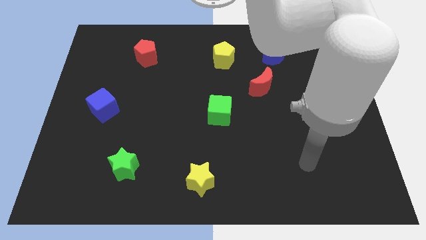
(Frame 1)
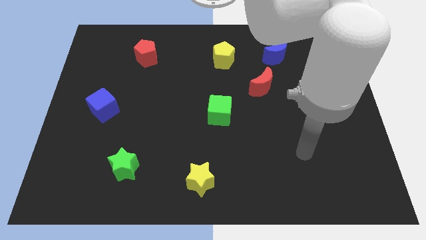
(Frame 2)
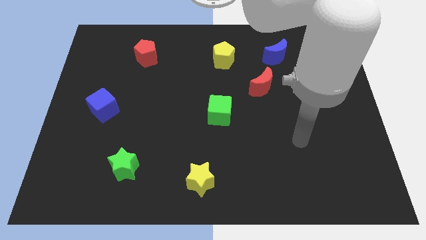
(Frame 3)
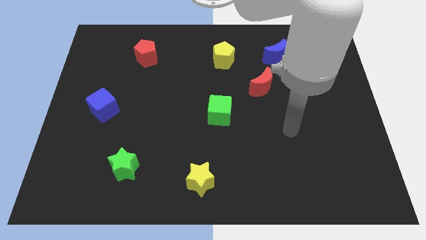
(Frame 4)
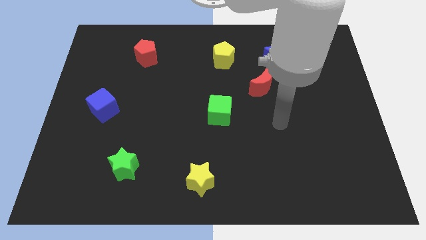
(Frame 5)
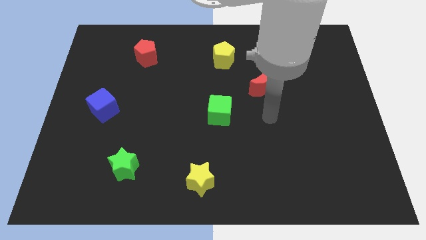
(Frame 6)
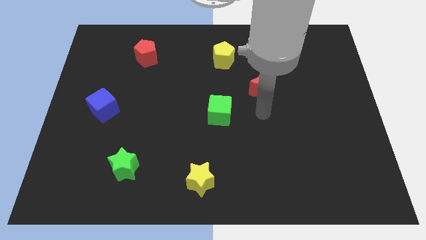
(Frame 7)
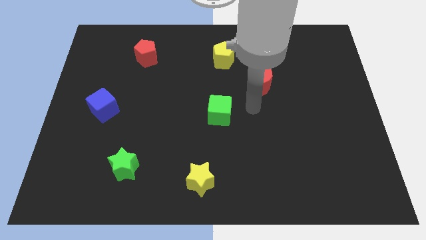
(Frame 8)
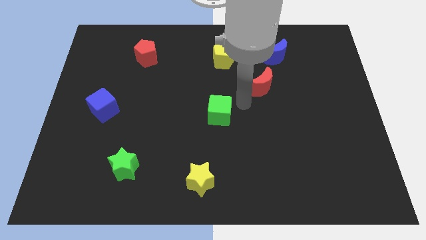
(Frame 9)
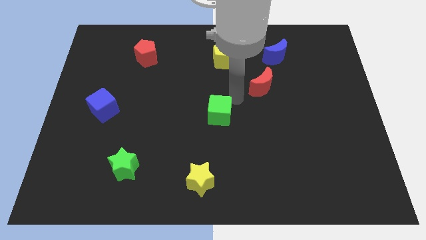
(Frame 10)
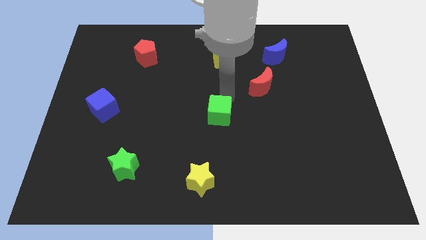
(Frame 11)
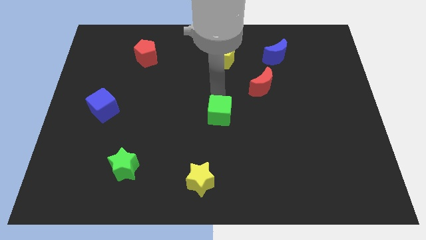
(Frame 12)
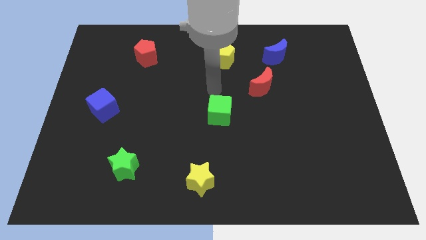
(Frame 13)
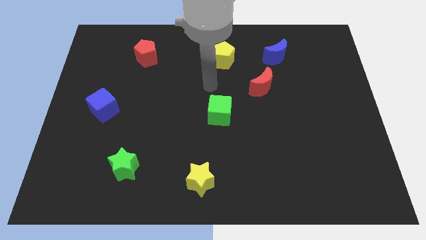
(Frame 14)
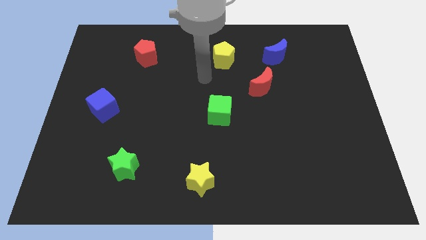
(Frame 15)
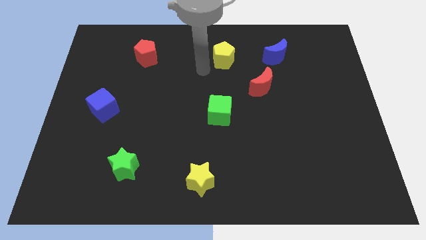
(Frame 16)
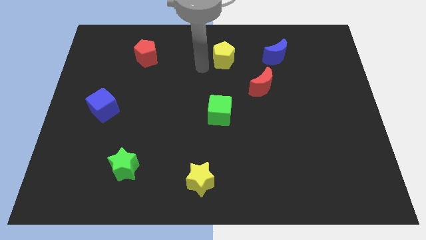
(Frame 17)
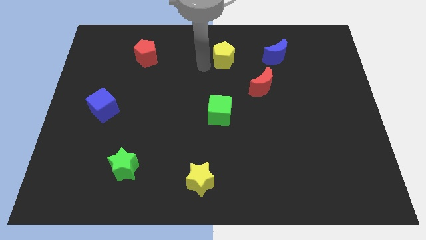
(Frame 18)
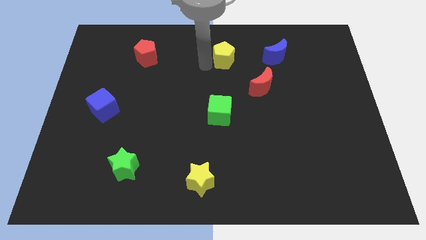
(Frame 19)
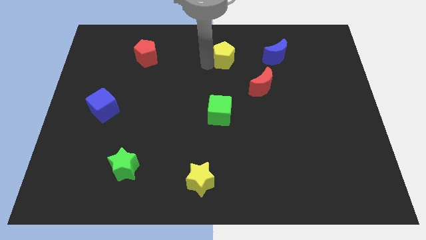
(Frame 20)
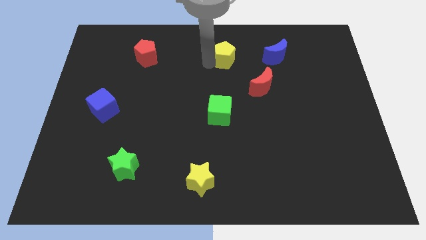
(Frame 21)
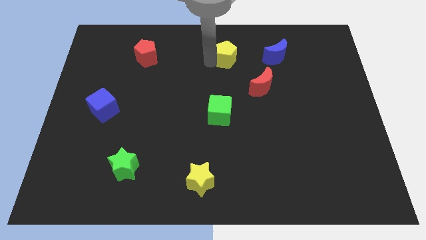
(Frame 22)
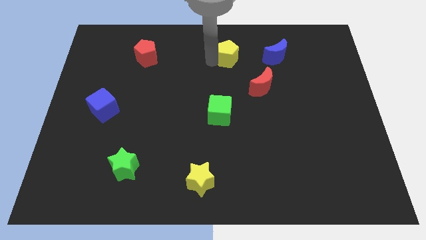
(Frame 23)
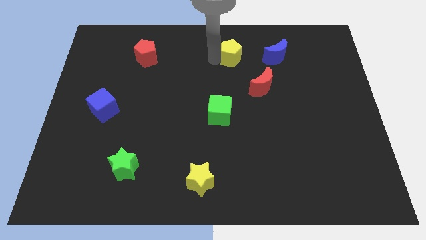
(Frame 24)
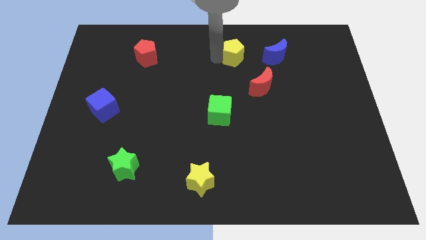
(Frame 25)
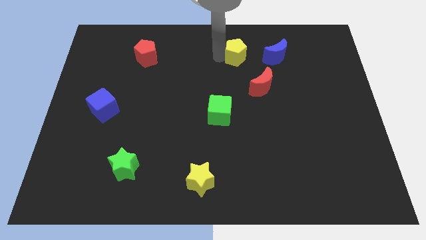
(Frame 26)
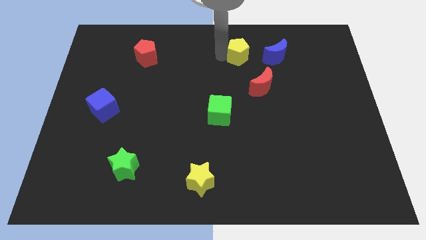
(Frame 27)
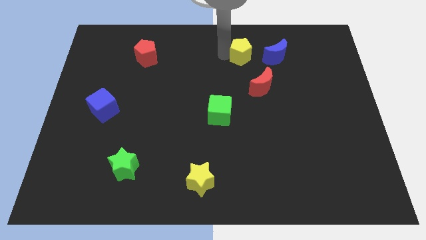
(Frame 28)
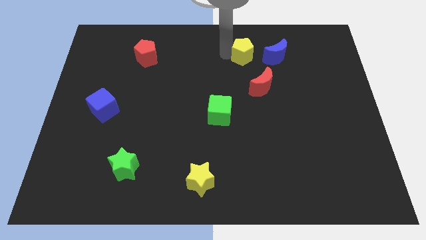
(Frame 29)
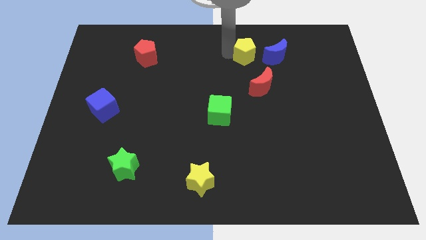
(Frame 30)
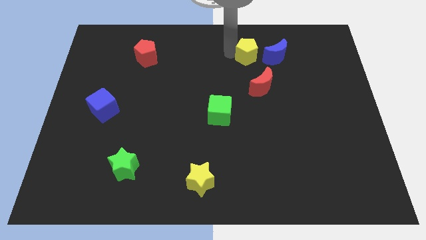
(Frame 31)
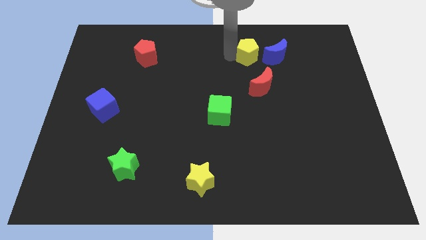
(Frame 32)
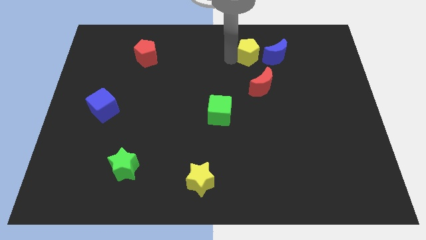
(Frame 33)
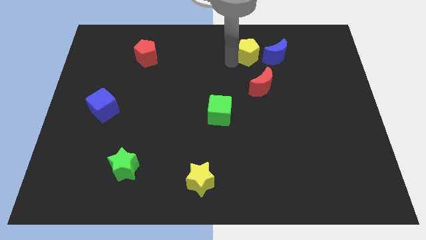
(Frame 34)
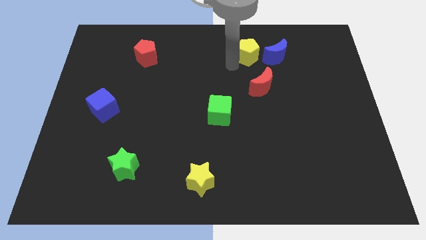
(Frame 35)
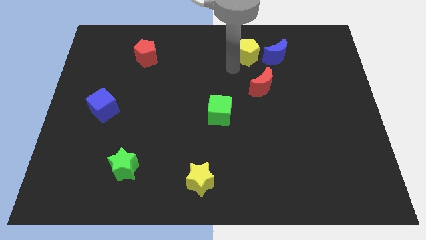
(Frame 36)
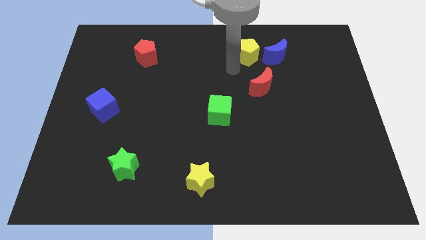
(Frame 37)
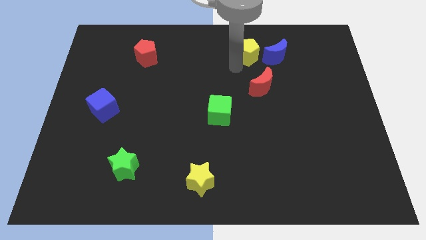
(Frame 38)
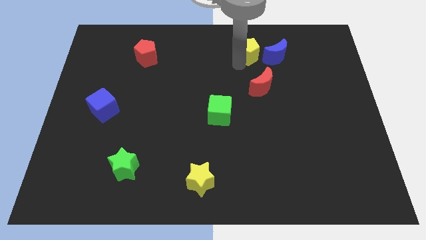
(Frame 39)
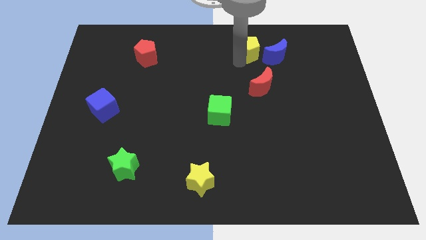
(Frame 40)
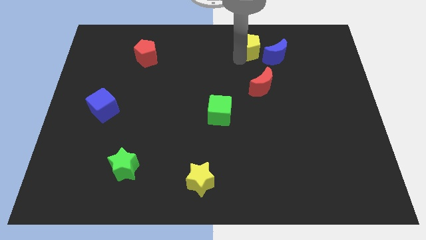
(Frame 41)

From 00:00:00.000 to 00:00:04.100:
slide the yellow pentagon to the right a bit

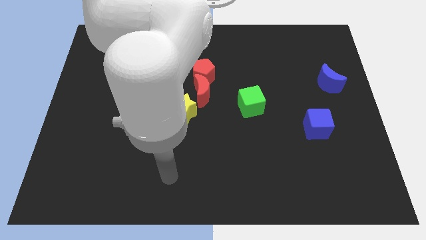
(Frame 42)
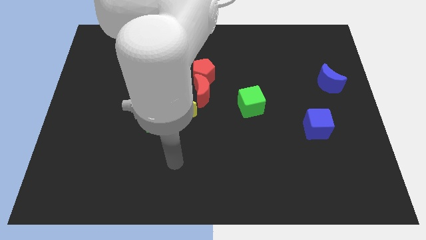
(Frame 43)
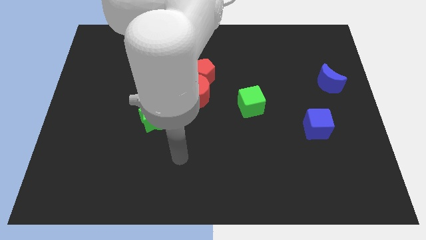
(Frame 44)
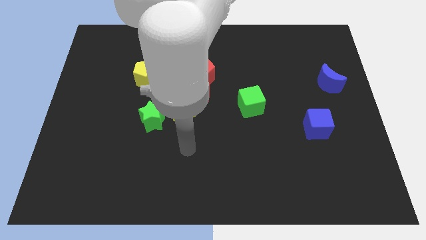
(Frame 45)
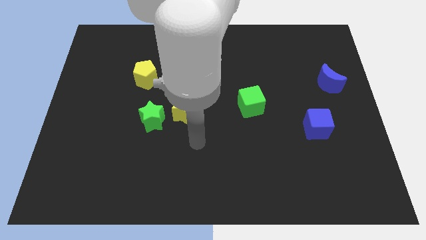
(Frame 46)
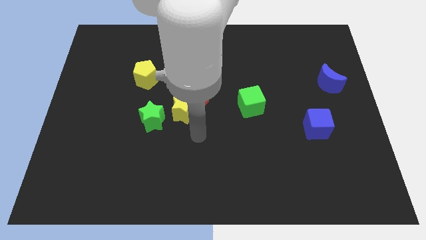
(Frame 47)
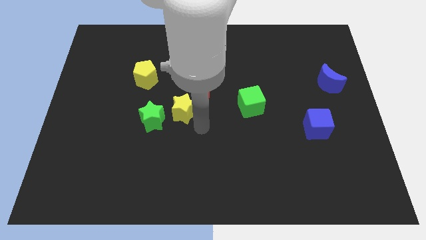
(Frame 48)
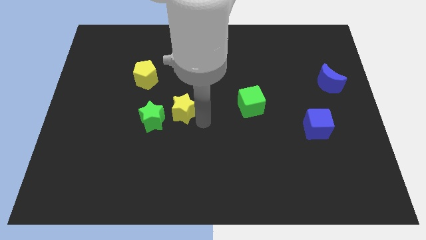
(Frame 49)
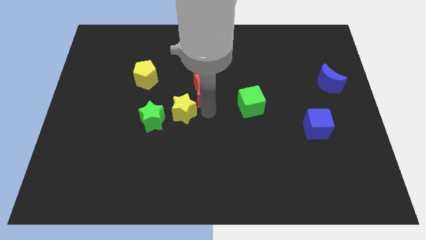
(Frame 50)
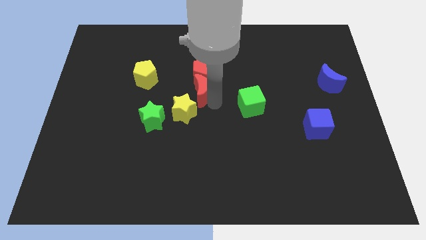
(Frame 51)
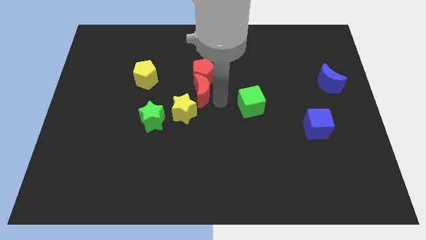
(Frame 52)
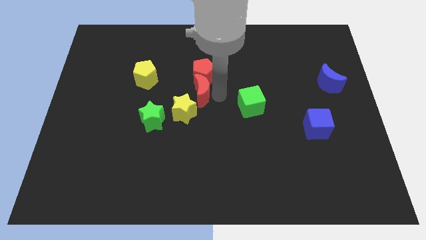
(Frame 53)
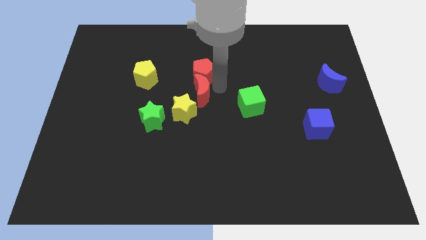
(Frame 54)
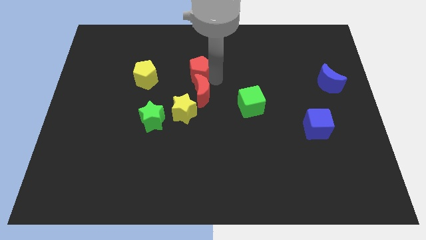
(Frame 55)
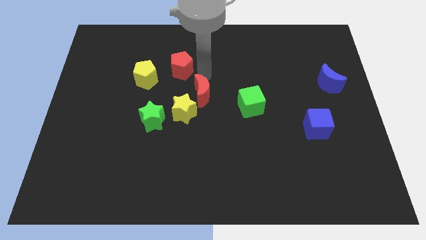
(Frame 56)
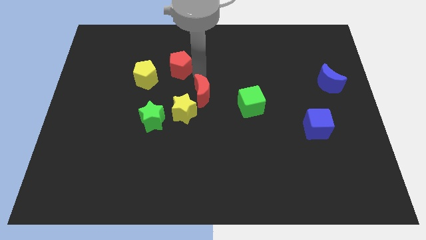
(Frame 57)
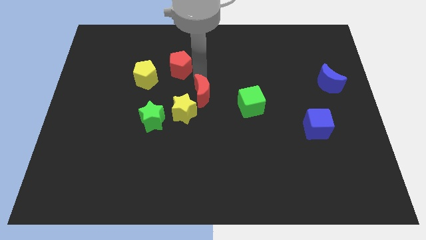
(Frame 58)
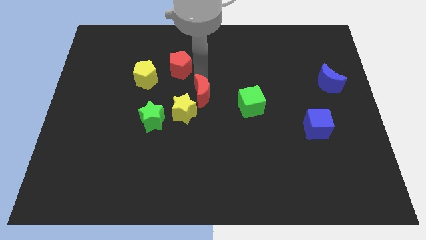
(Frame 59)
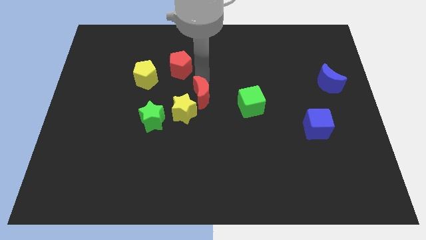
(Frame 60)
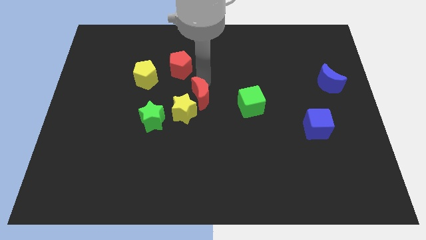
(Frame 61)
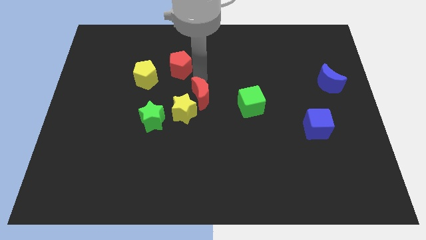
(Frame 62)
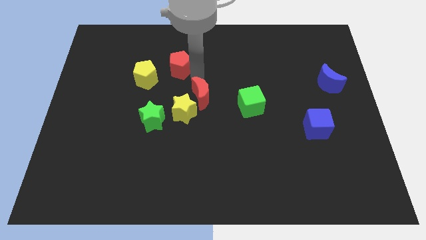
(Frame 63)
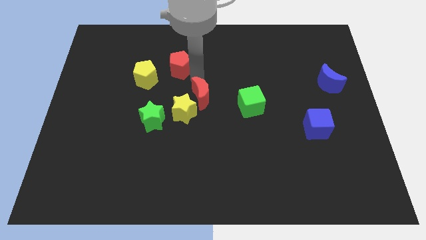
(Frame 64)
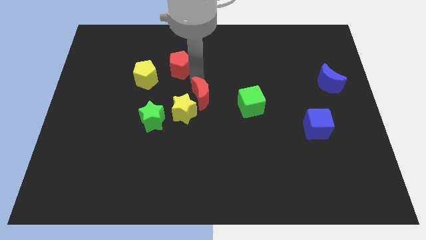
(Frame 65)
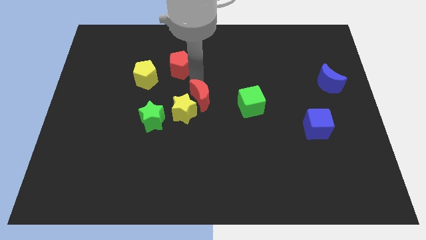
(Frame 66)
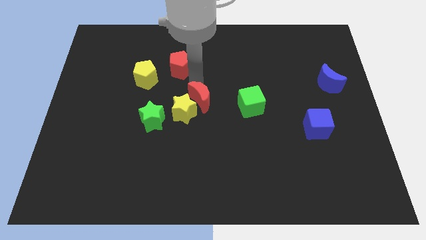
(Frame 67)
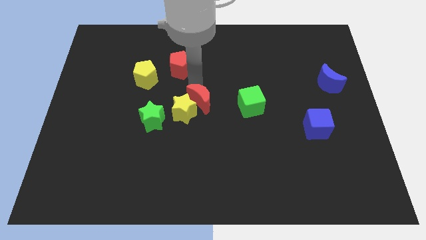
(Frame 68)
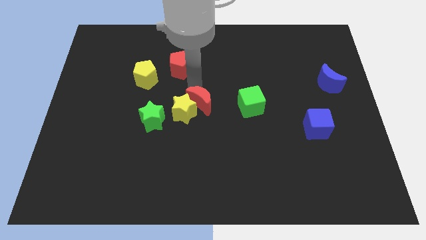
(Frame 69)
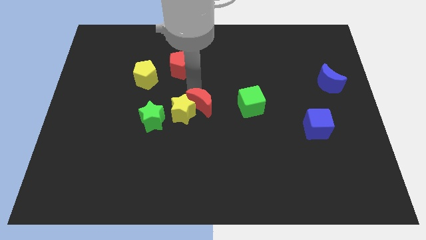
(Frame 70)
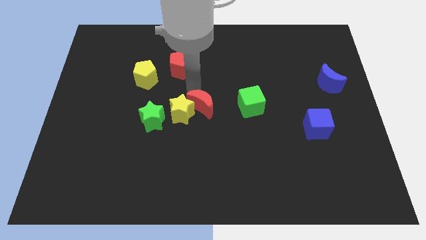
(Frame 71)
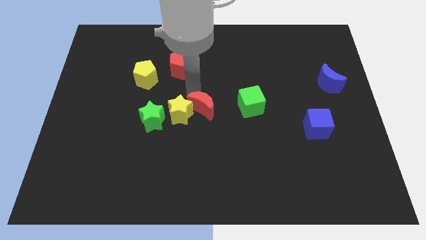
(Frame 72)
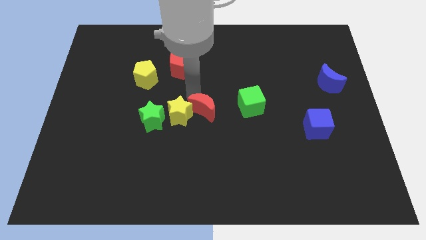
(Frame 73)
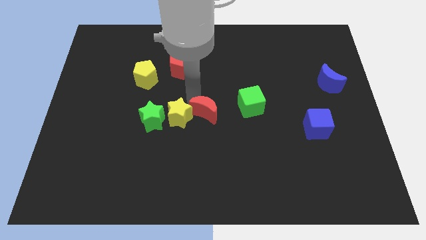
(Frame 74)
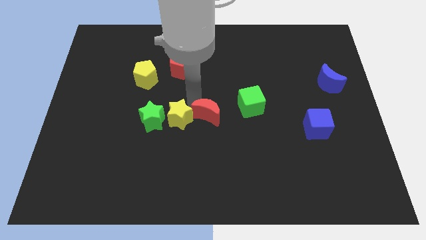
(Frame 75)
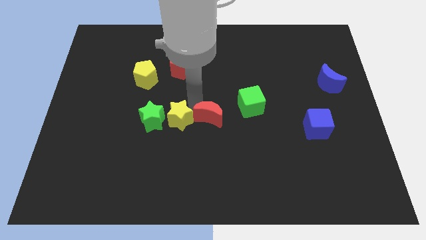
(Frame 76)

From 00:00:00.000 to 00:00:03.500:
slightly slide the red moon downwards

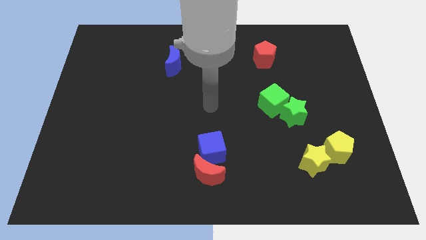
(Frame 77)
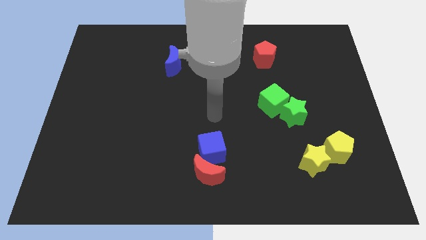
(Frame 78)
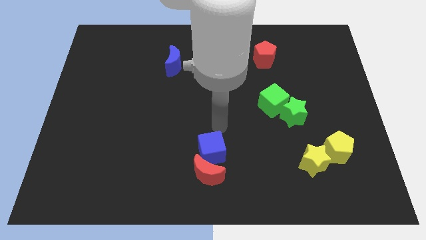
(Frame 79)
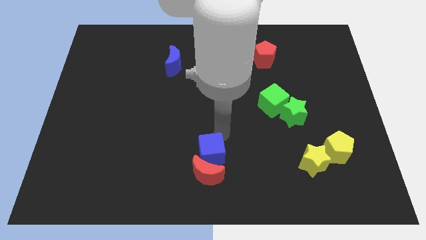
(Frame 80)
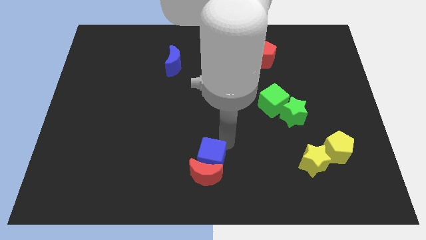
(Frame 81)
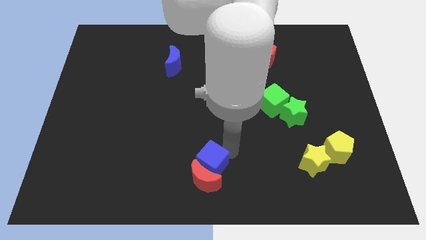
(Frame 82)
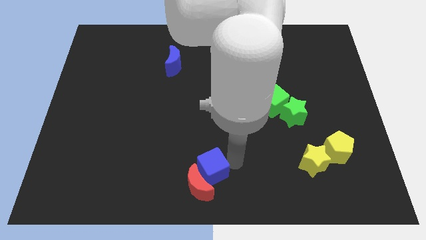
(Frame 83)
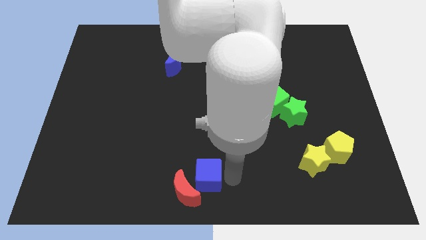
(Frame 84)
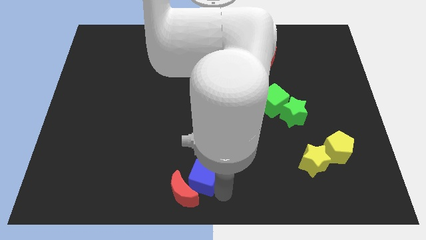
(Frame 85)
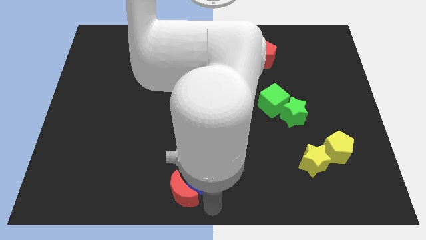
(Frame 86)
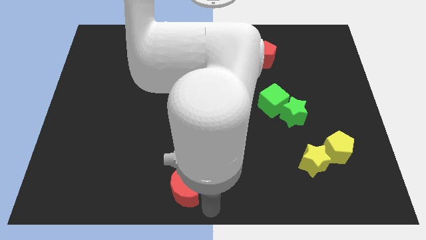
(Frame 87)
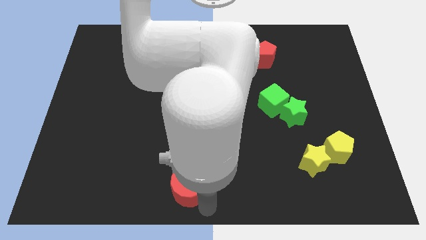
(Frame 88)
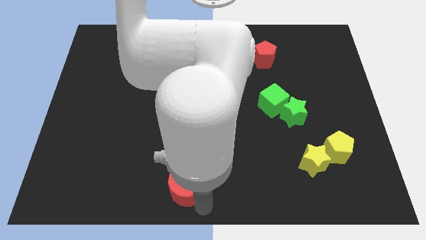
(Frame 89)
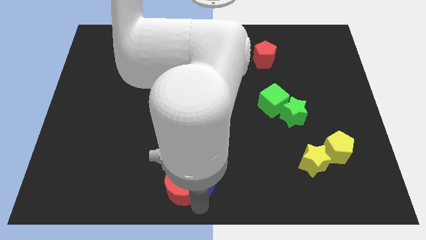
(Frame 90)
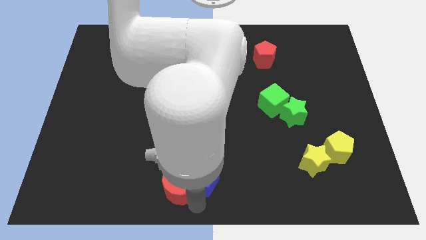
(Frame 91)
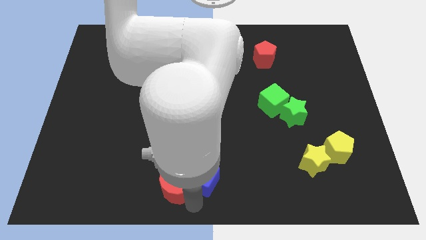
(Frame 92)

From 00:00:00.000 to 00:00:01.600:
push the red moon to the left slightly
